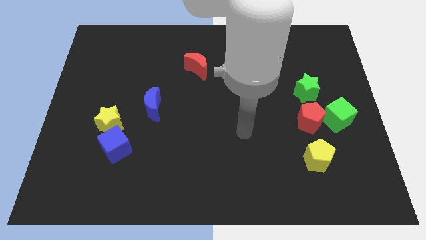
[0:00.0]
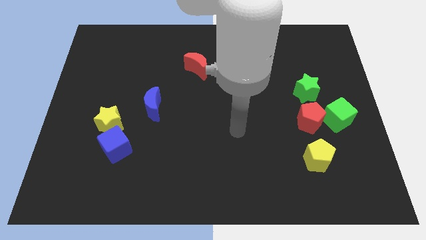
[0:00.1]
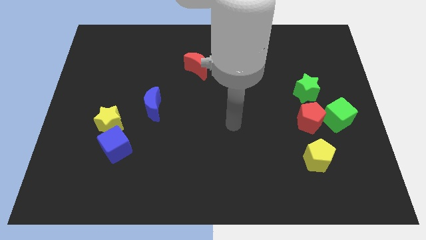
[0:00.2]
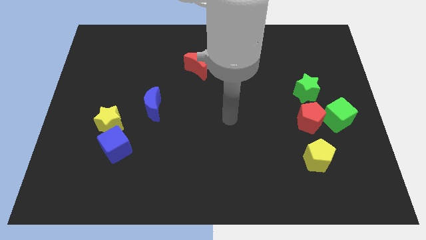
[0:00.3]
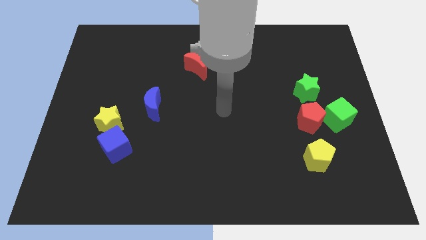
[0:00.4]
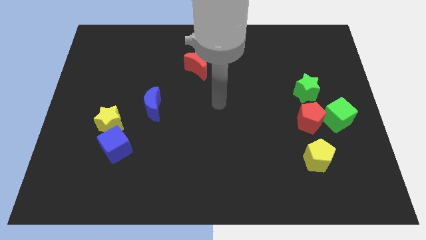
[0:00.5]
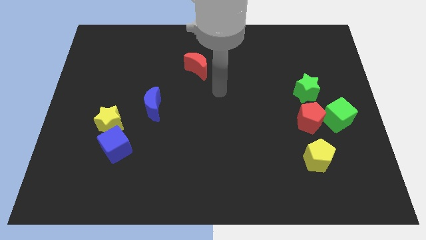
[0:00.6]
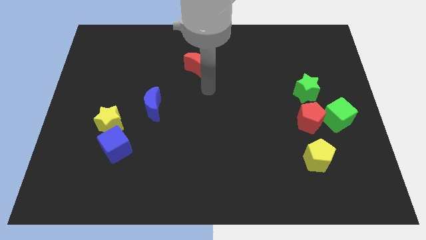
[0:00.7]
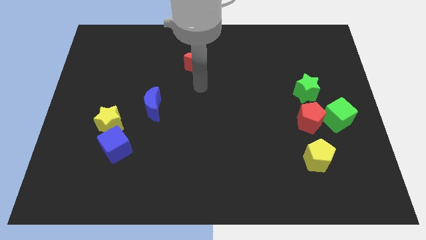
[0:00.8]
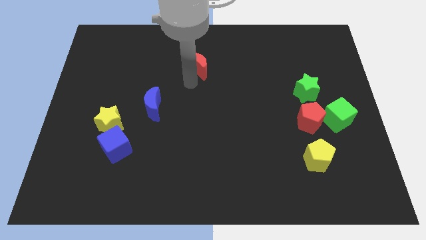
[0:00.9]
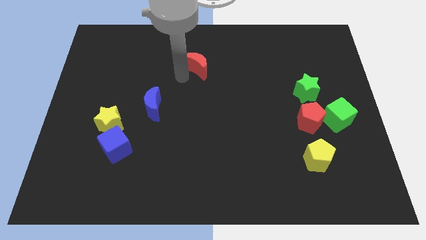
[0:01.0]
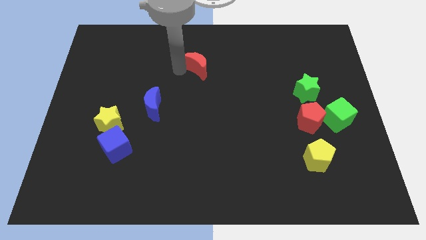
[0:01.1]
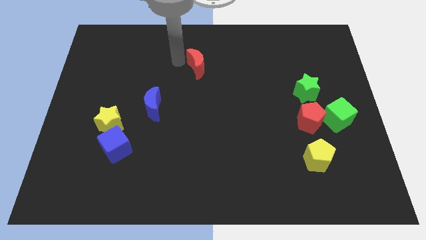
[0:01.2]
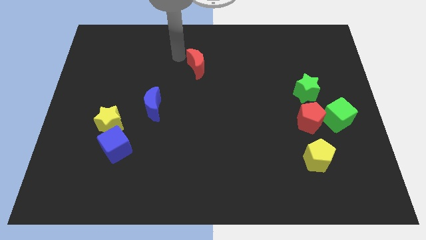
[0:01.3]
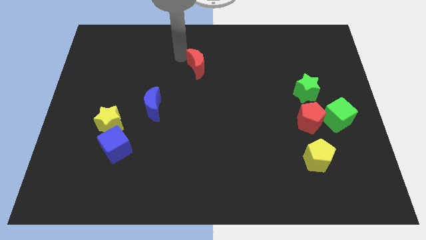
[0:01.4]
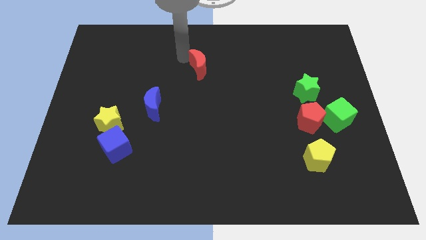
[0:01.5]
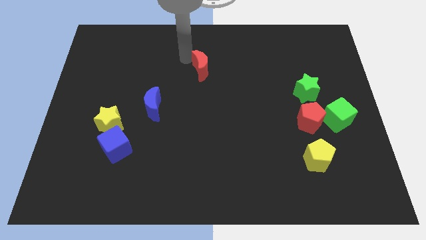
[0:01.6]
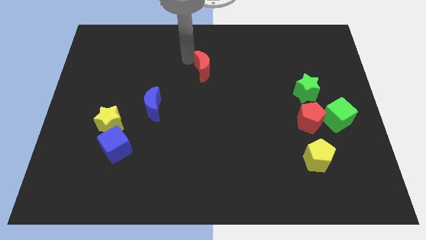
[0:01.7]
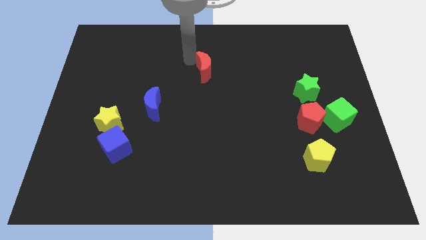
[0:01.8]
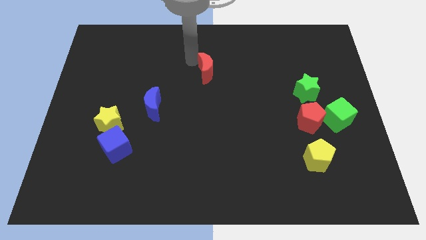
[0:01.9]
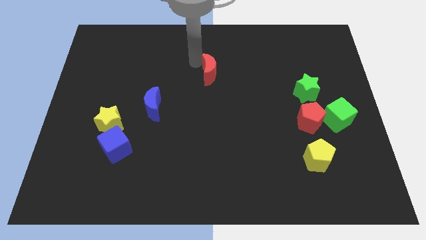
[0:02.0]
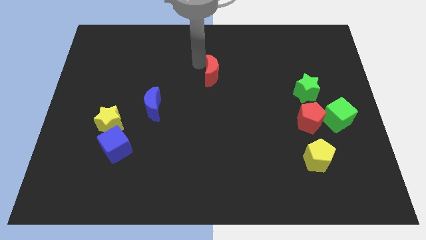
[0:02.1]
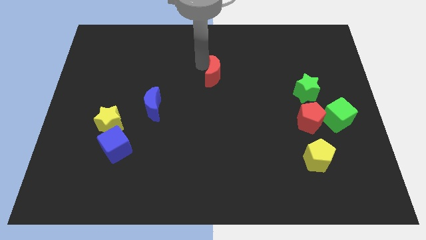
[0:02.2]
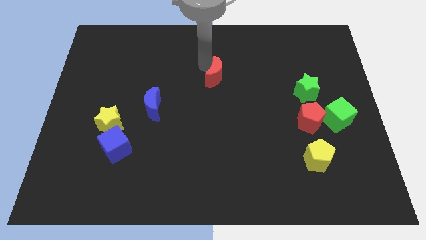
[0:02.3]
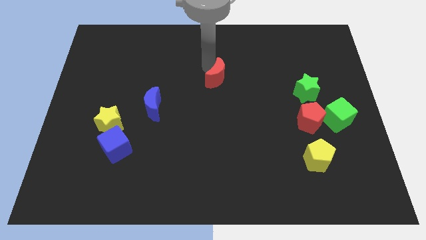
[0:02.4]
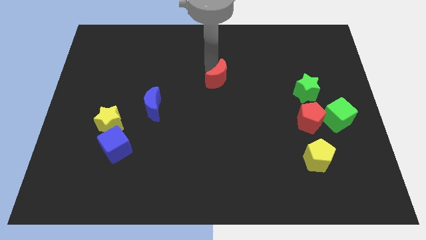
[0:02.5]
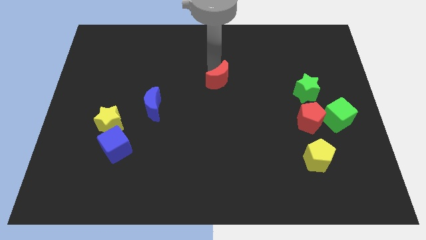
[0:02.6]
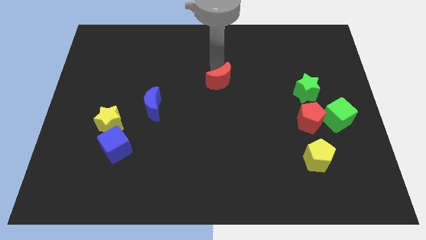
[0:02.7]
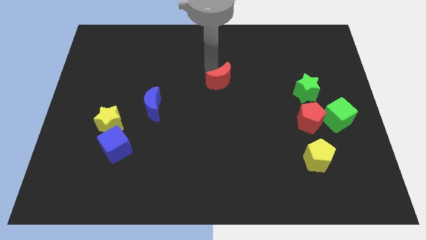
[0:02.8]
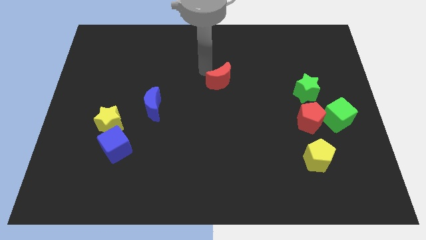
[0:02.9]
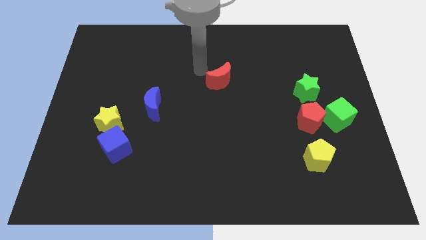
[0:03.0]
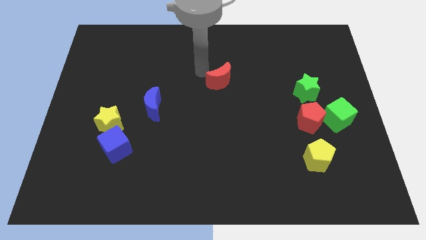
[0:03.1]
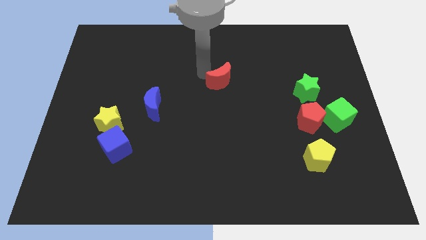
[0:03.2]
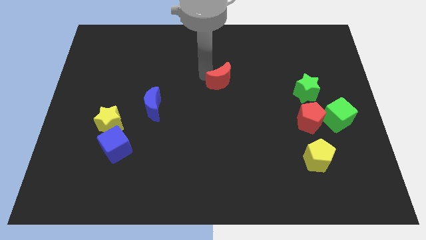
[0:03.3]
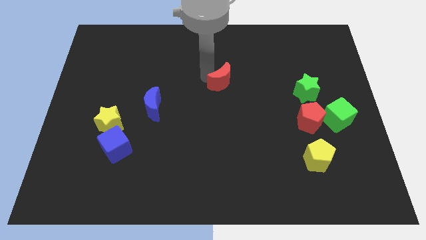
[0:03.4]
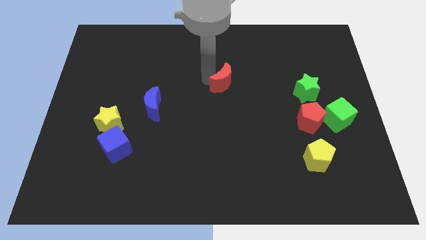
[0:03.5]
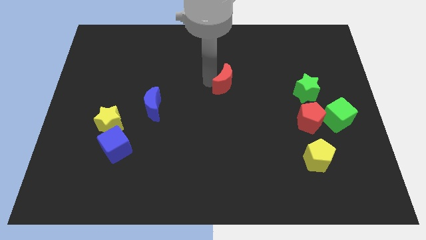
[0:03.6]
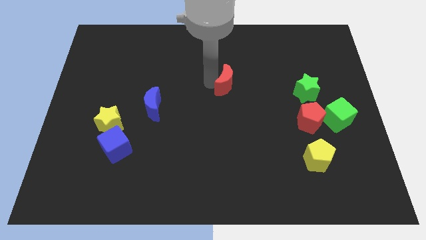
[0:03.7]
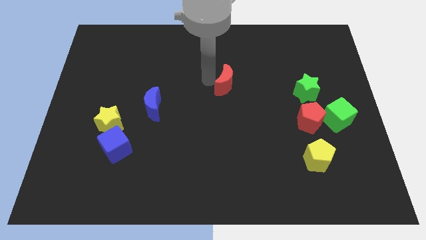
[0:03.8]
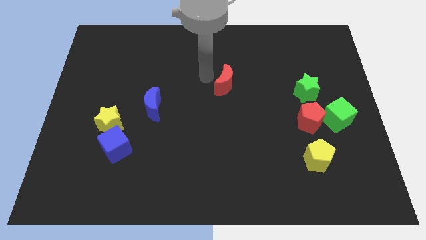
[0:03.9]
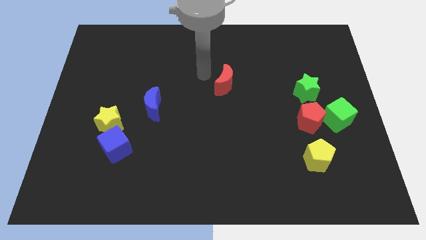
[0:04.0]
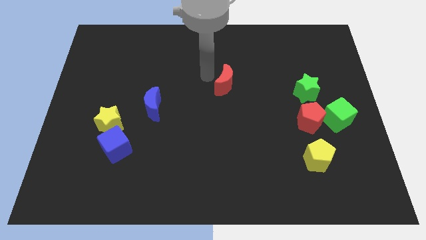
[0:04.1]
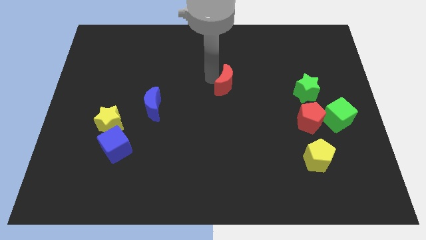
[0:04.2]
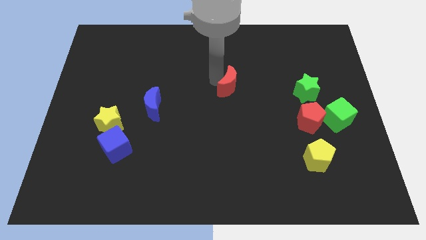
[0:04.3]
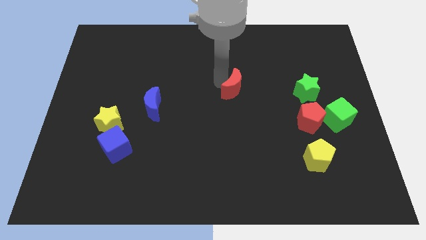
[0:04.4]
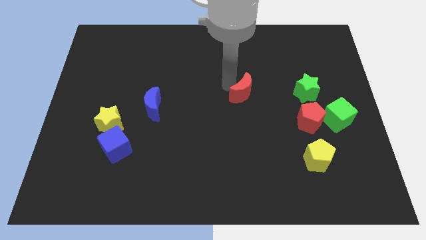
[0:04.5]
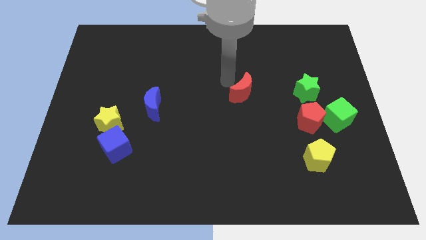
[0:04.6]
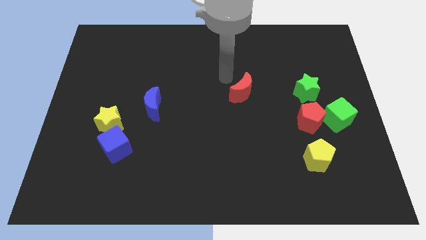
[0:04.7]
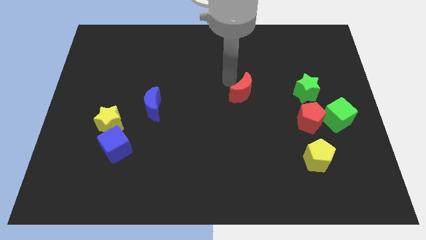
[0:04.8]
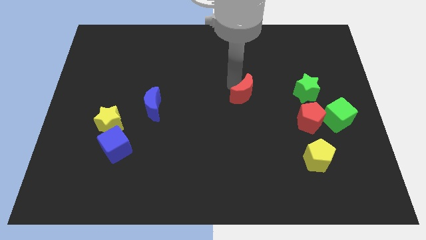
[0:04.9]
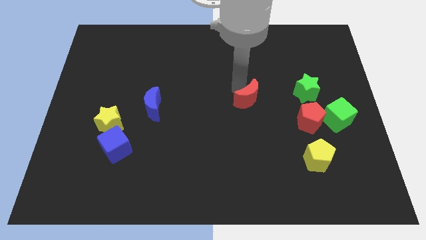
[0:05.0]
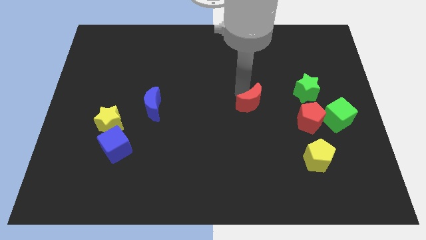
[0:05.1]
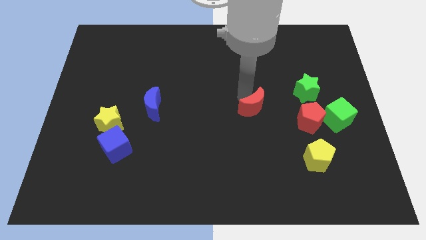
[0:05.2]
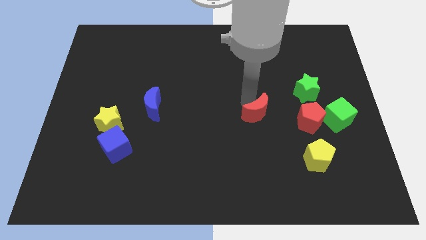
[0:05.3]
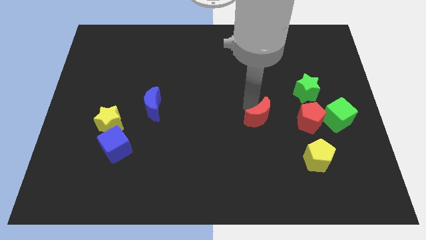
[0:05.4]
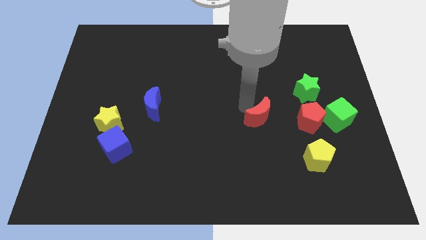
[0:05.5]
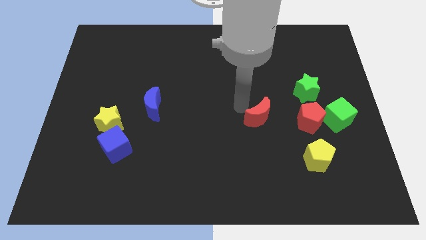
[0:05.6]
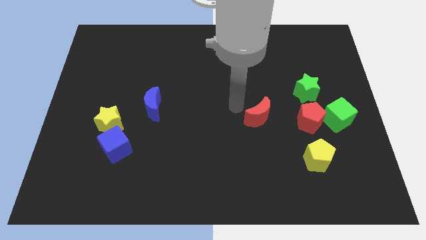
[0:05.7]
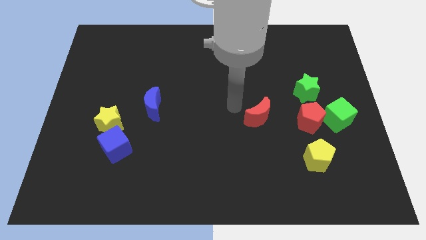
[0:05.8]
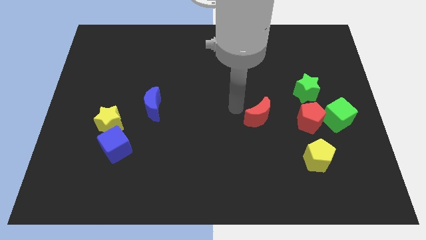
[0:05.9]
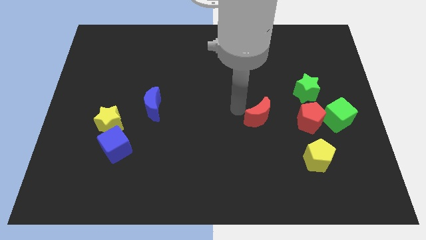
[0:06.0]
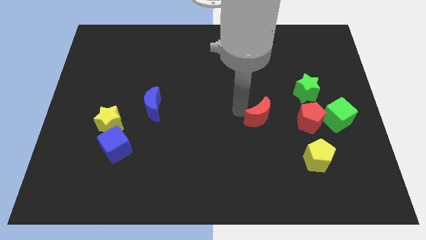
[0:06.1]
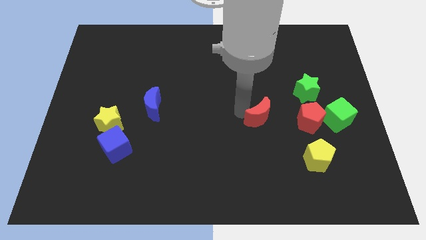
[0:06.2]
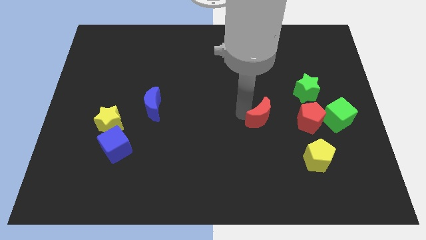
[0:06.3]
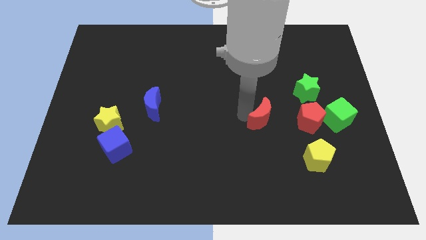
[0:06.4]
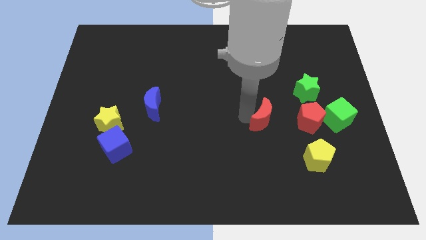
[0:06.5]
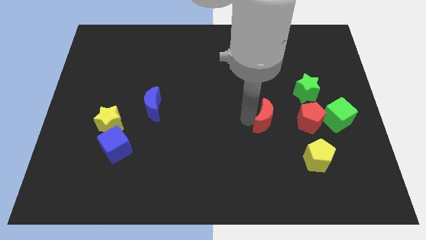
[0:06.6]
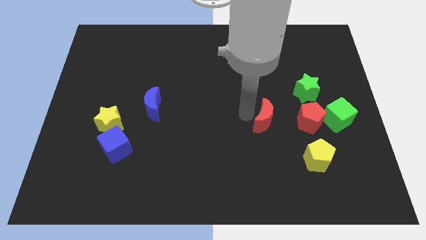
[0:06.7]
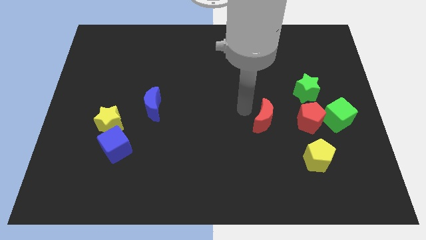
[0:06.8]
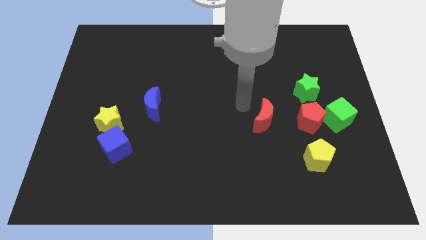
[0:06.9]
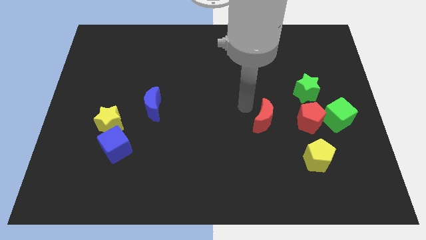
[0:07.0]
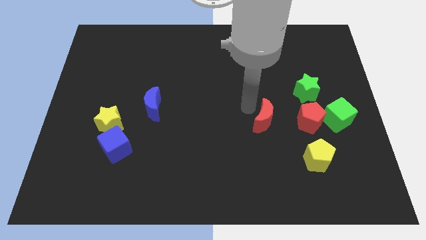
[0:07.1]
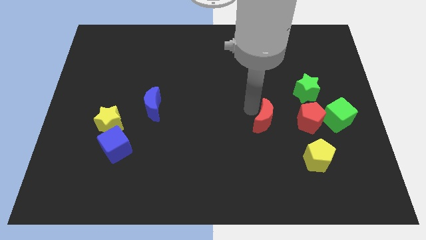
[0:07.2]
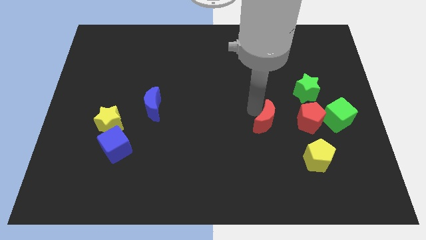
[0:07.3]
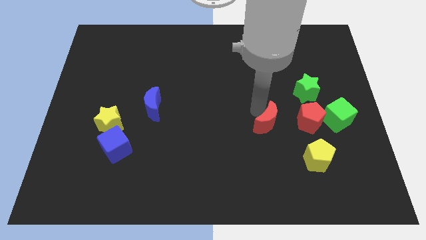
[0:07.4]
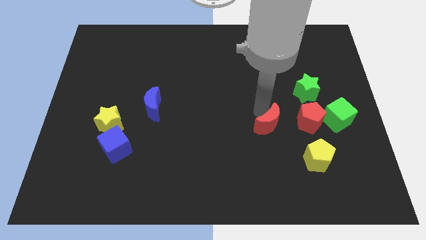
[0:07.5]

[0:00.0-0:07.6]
move the red moon to the top left side of the yellow pentagon
